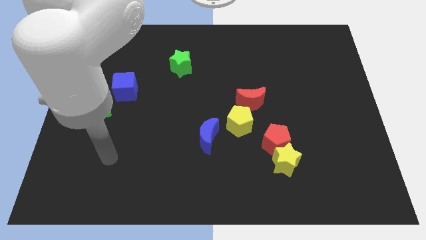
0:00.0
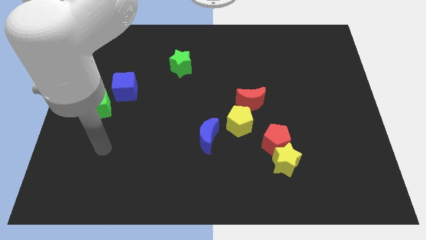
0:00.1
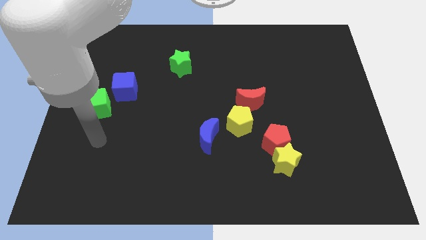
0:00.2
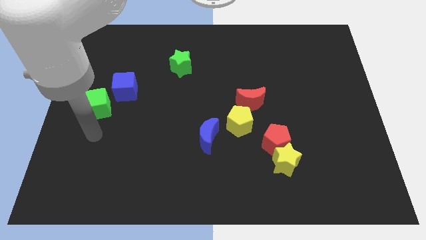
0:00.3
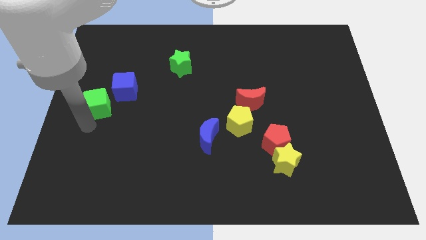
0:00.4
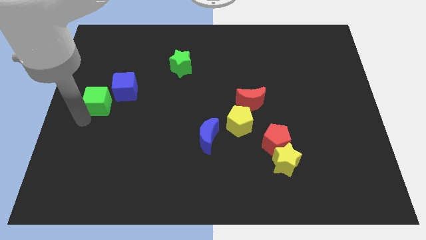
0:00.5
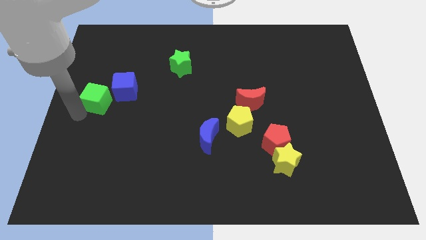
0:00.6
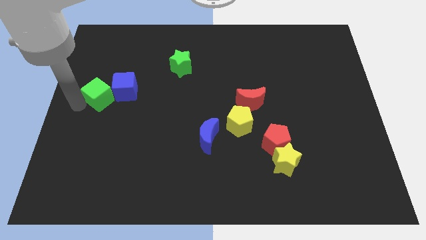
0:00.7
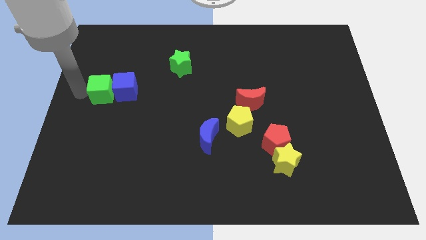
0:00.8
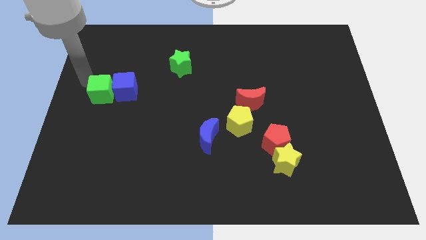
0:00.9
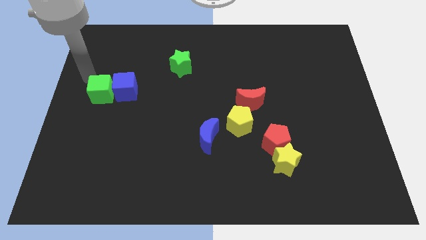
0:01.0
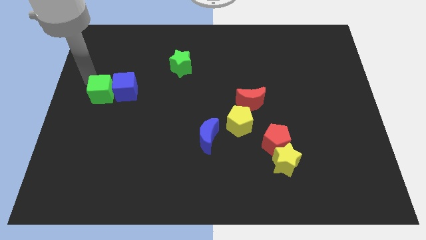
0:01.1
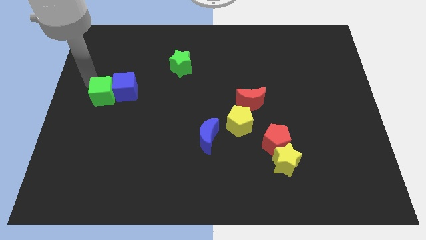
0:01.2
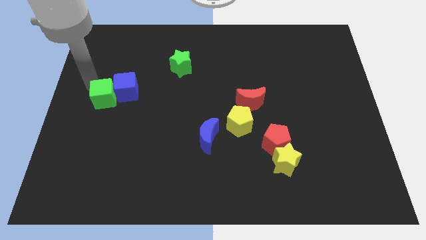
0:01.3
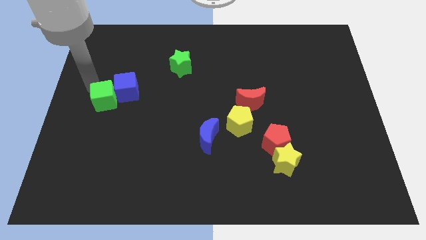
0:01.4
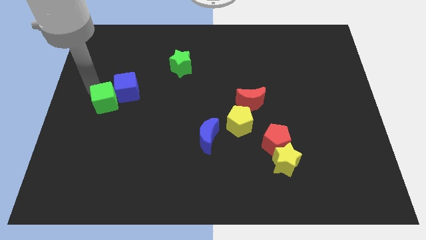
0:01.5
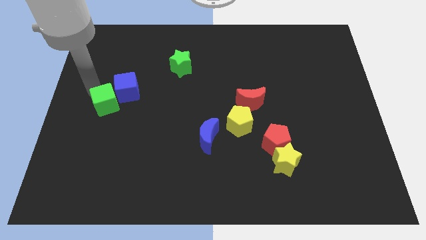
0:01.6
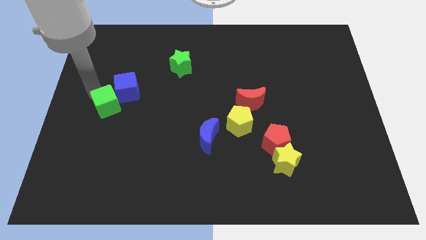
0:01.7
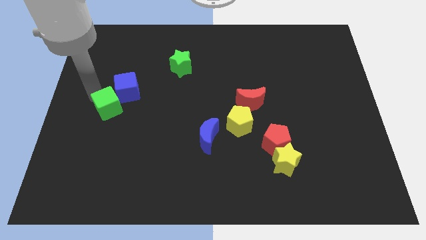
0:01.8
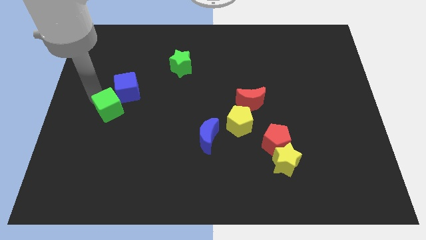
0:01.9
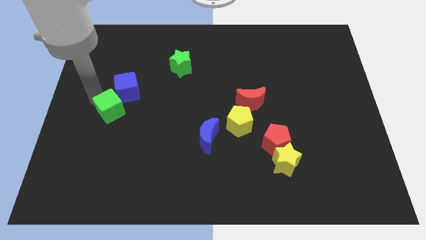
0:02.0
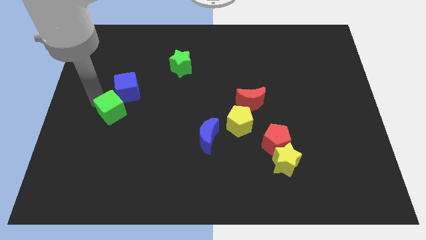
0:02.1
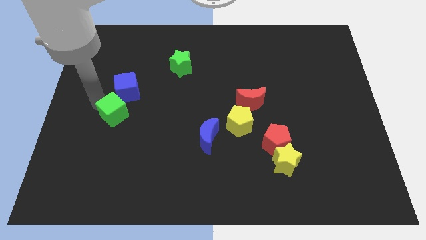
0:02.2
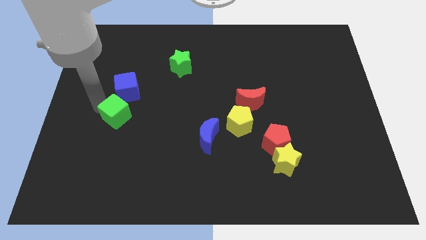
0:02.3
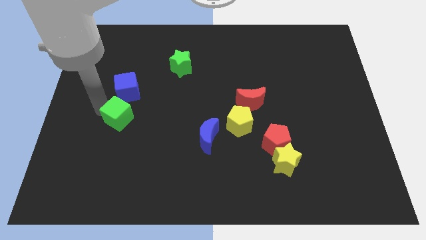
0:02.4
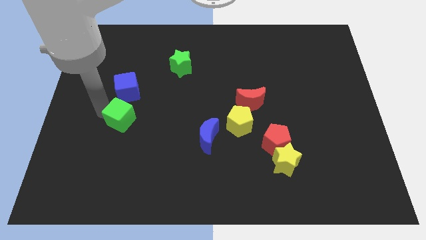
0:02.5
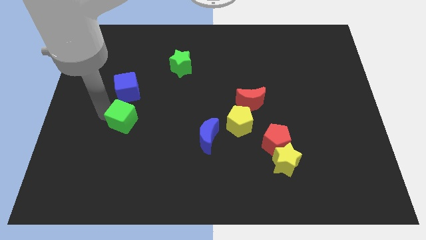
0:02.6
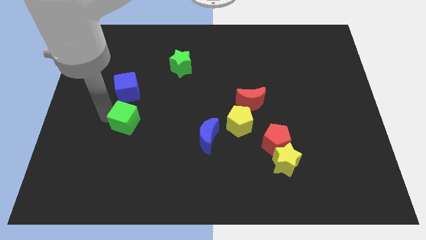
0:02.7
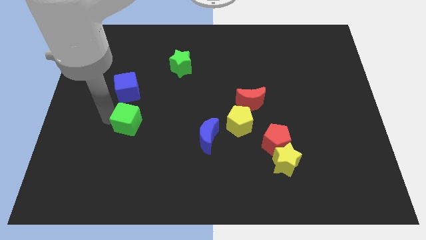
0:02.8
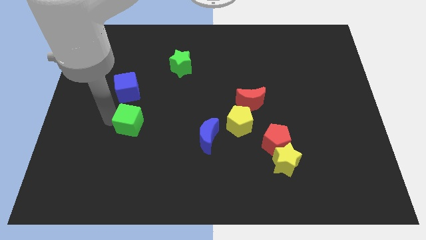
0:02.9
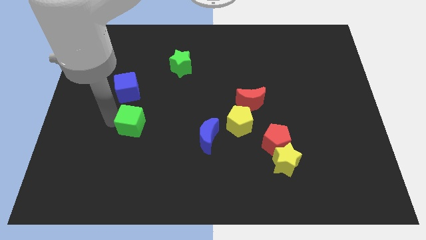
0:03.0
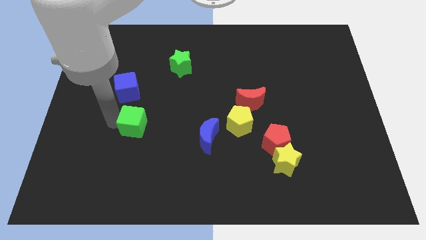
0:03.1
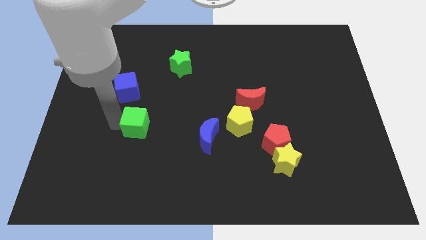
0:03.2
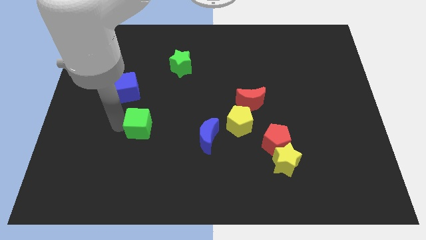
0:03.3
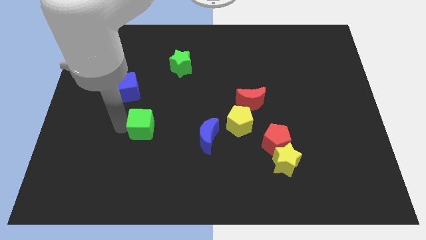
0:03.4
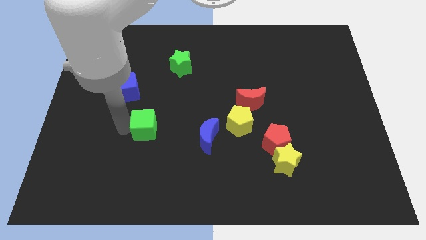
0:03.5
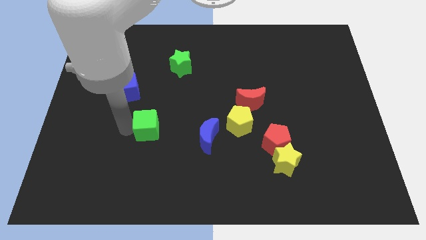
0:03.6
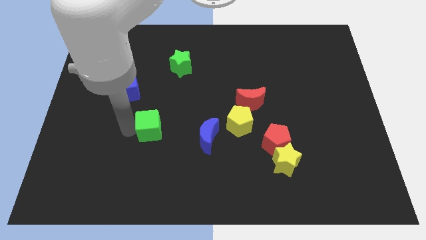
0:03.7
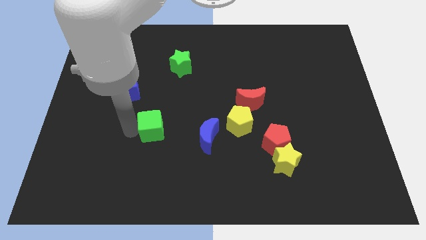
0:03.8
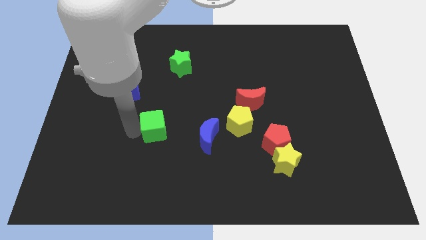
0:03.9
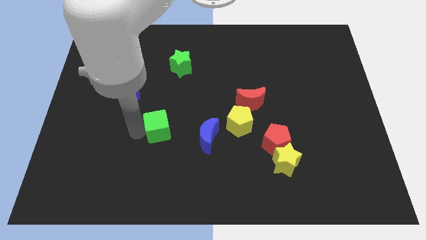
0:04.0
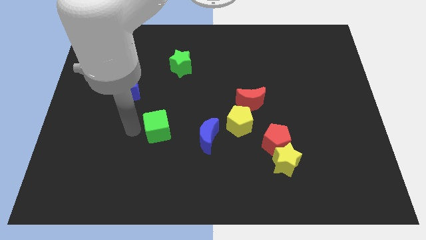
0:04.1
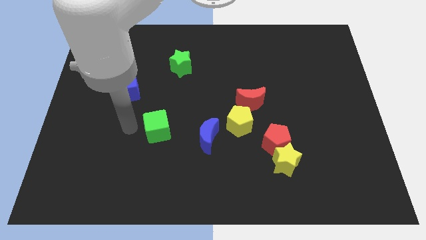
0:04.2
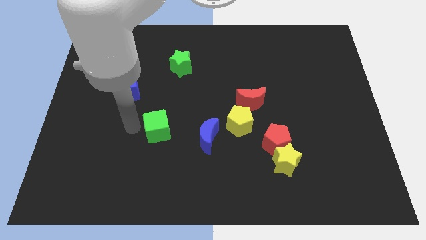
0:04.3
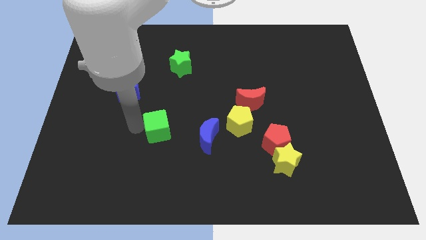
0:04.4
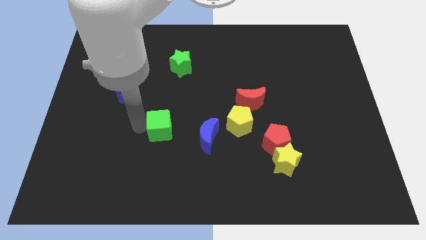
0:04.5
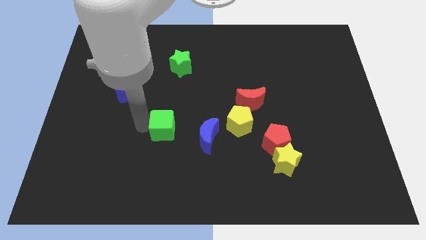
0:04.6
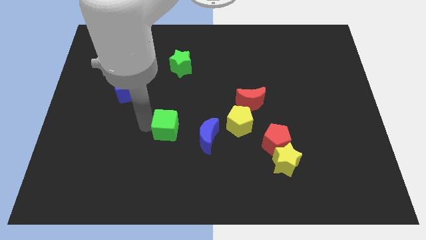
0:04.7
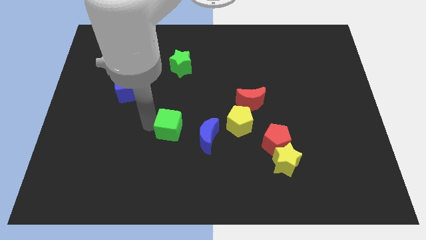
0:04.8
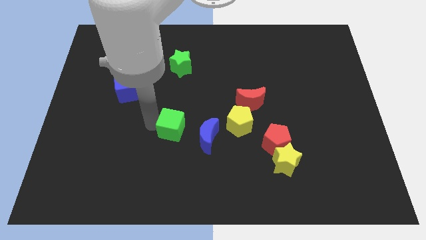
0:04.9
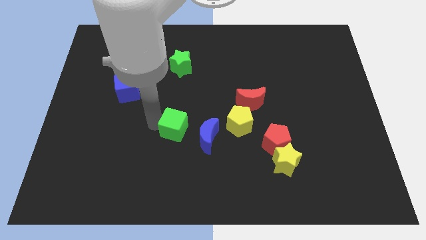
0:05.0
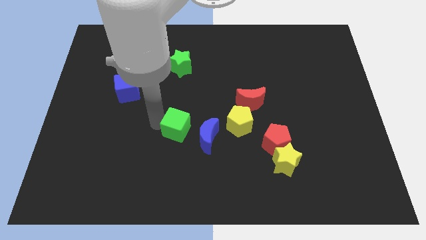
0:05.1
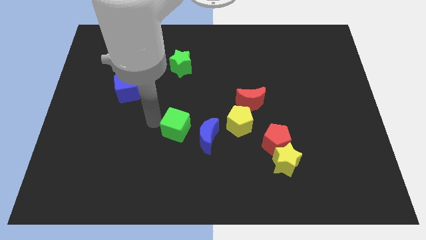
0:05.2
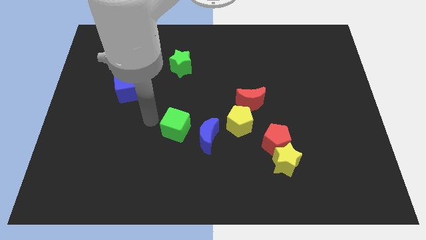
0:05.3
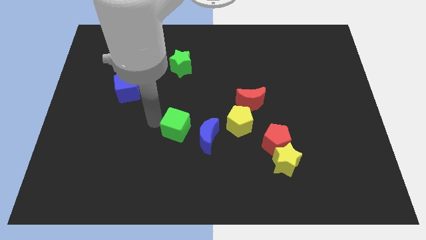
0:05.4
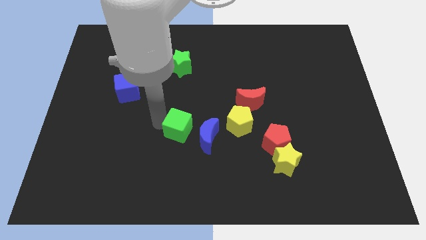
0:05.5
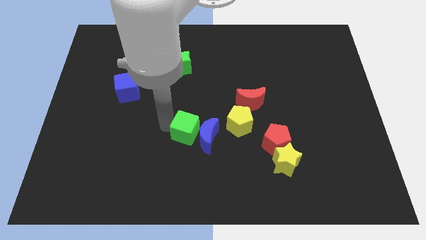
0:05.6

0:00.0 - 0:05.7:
slide the green cube towards the blue moon

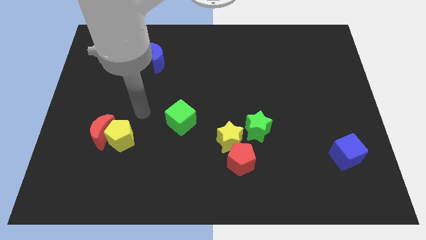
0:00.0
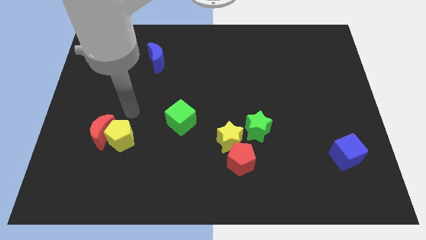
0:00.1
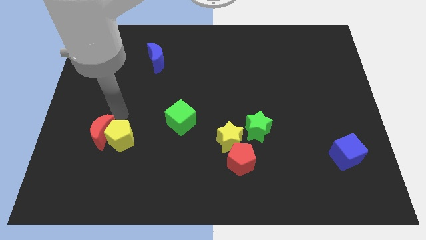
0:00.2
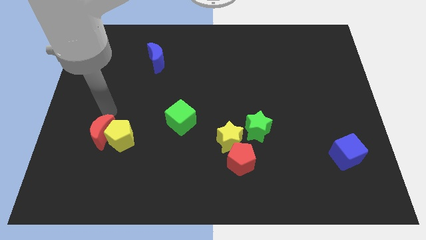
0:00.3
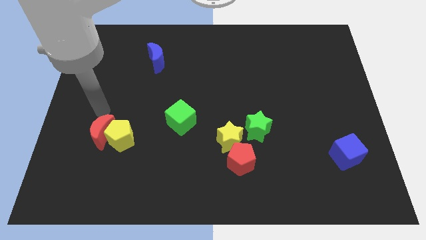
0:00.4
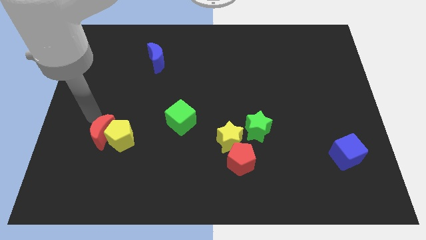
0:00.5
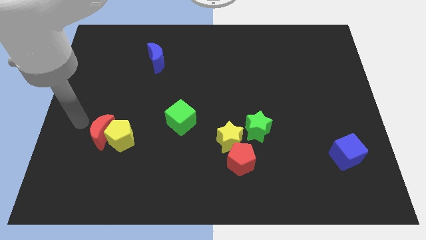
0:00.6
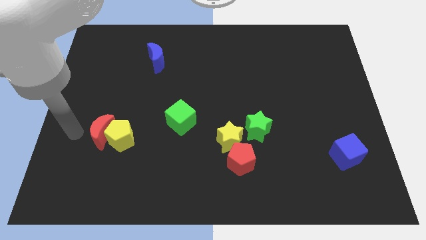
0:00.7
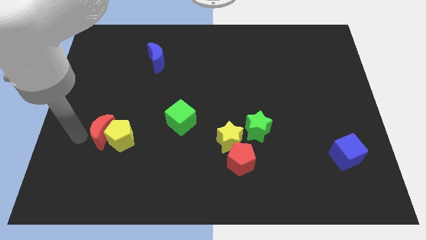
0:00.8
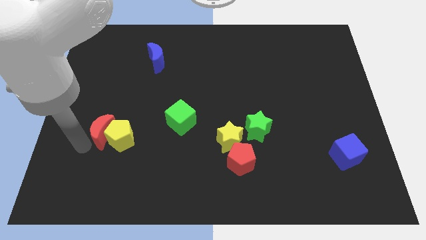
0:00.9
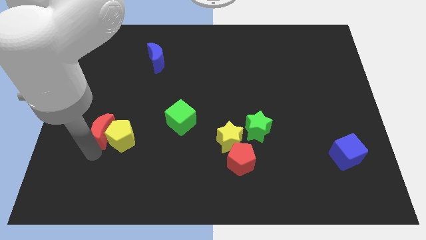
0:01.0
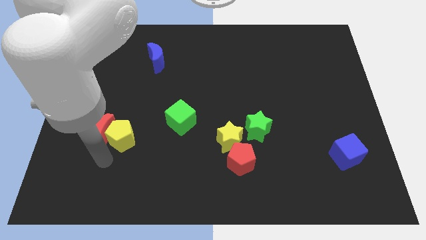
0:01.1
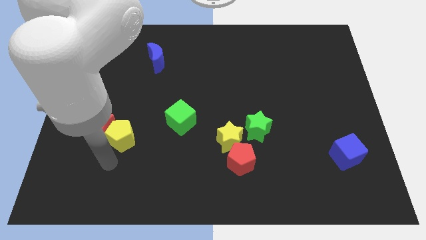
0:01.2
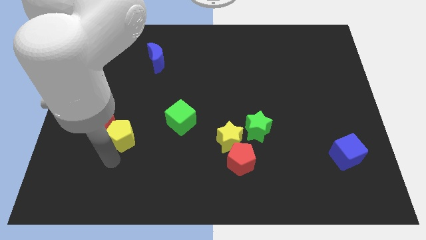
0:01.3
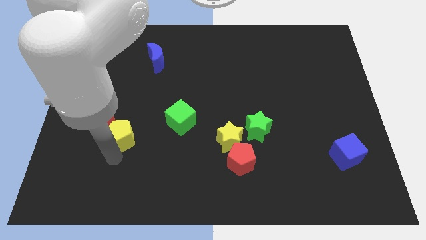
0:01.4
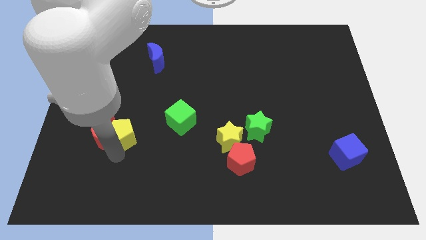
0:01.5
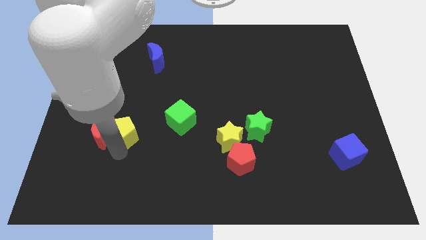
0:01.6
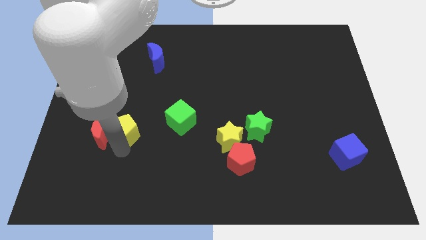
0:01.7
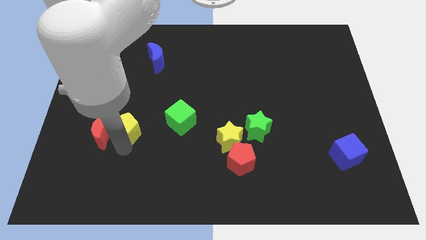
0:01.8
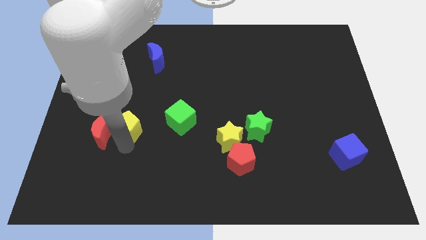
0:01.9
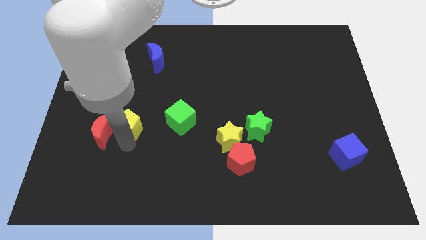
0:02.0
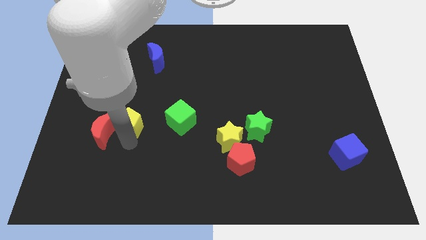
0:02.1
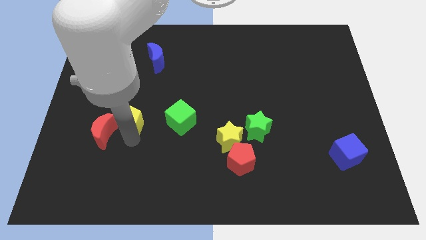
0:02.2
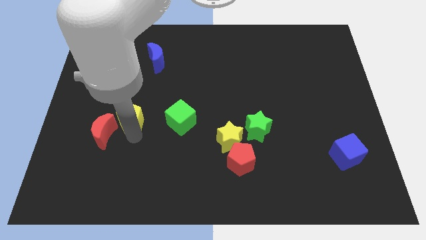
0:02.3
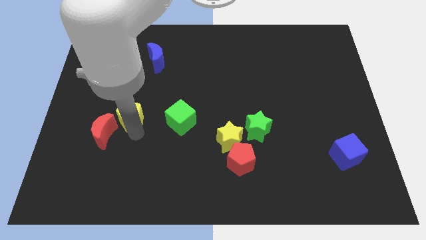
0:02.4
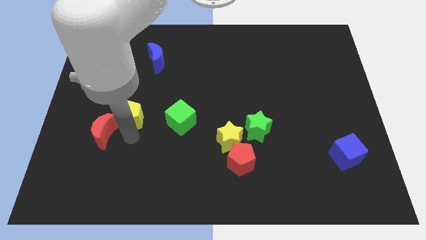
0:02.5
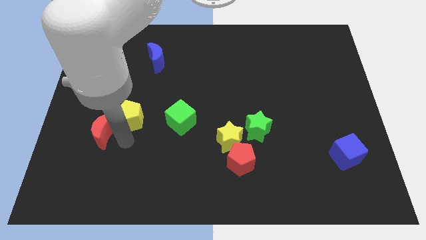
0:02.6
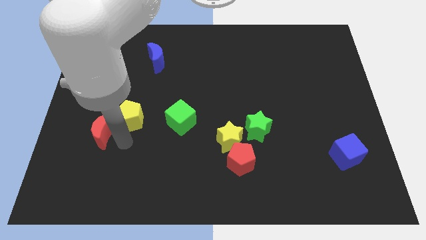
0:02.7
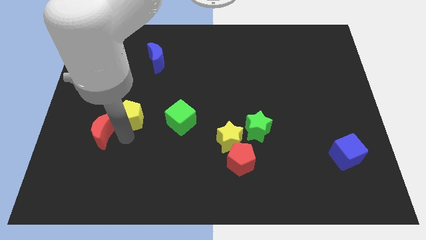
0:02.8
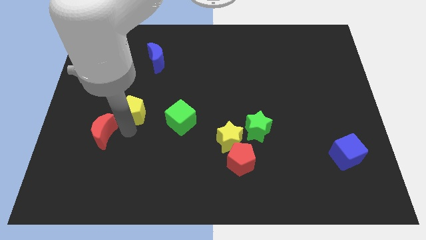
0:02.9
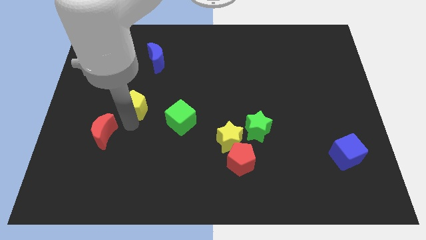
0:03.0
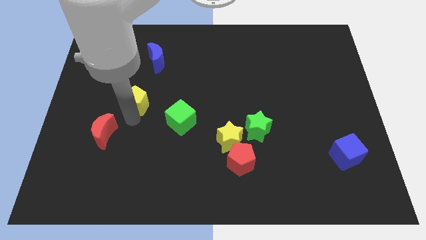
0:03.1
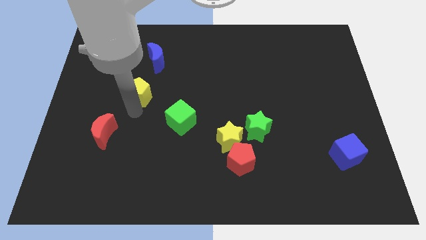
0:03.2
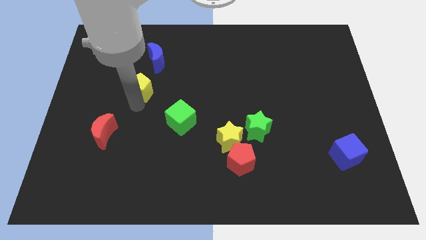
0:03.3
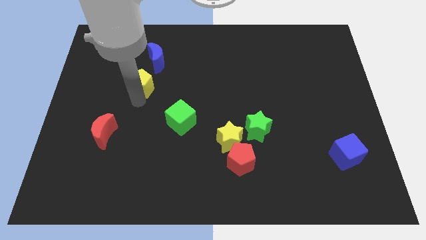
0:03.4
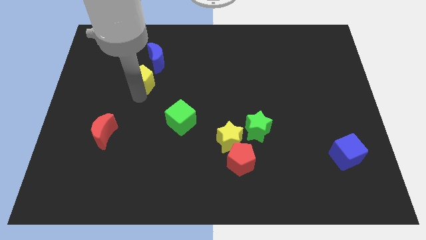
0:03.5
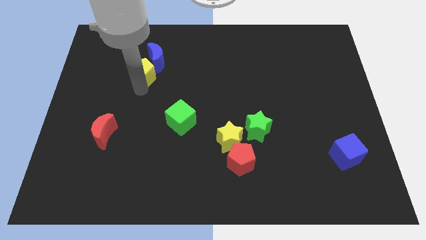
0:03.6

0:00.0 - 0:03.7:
move the yellow pentagon to the blue moon
